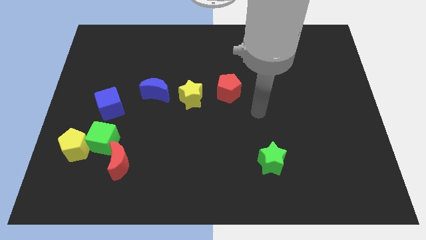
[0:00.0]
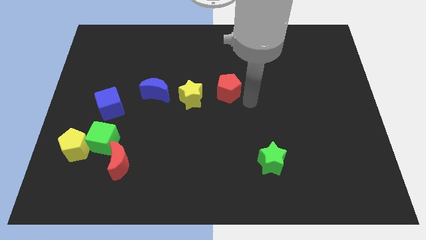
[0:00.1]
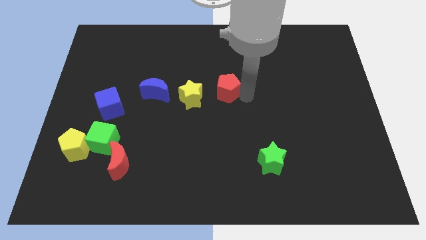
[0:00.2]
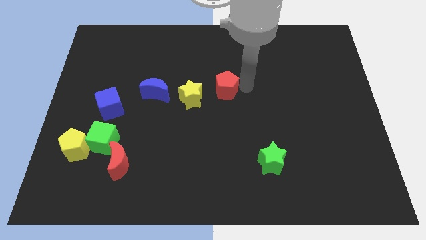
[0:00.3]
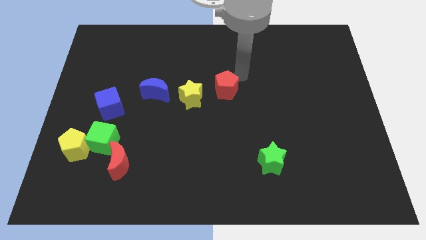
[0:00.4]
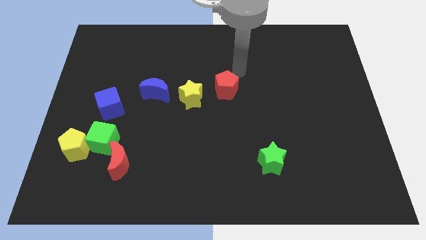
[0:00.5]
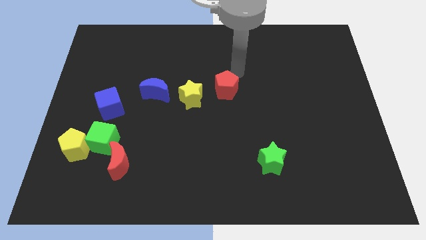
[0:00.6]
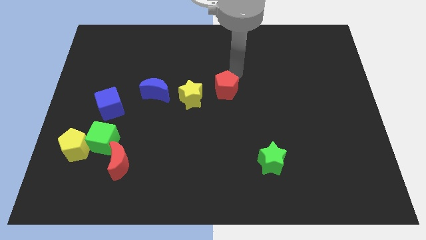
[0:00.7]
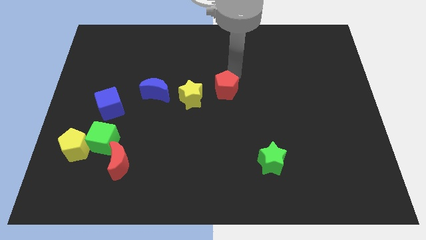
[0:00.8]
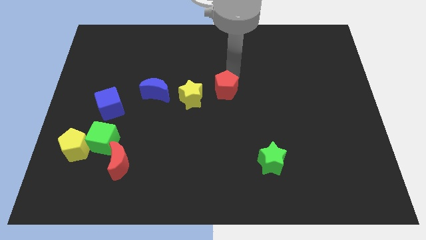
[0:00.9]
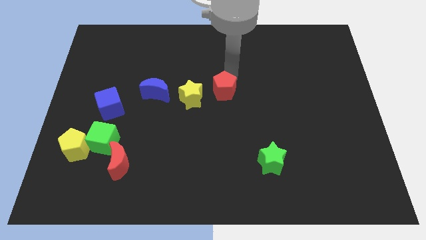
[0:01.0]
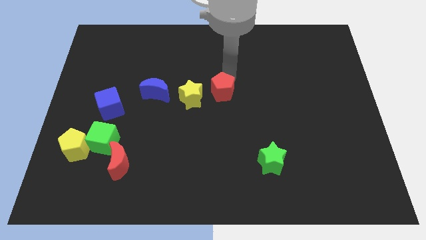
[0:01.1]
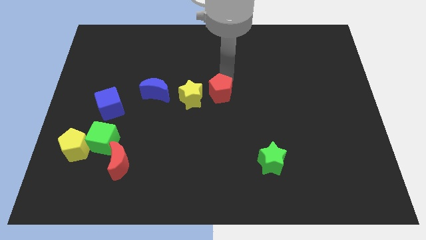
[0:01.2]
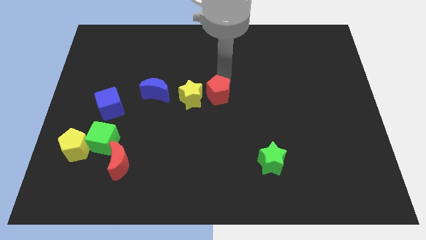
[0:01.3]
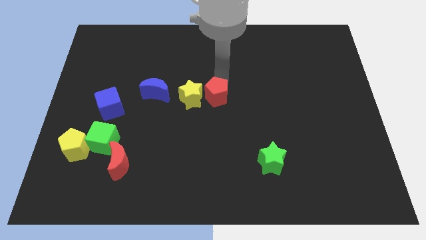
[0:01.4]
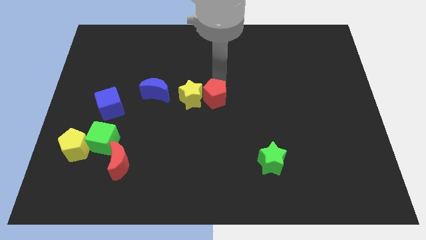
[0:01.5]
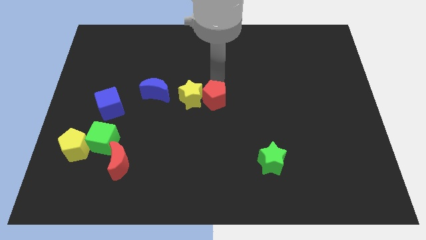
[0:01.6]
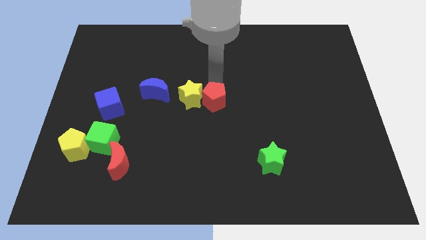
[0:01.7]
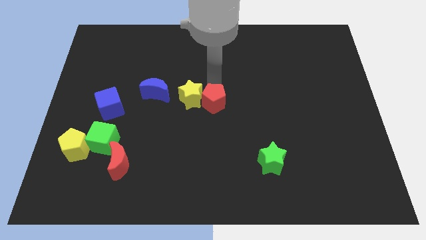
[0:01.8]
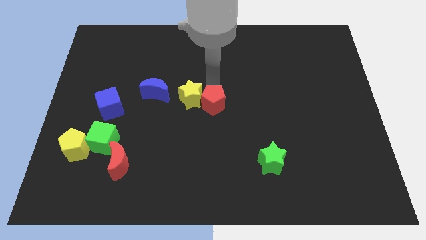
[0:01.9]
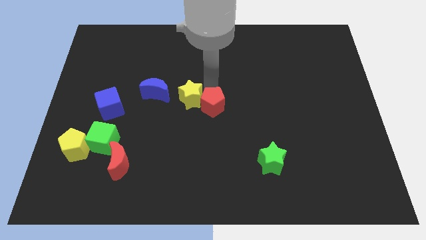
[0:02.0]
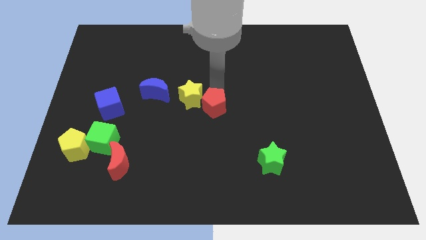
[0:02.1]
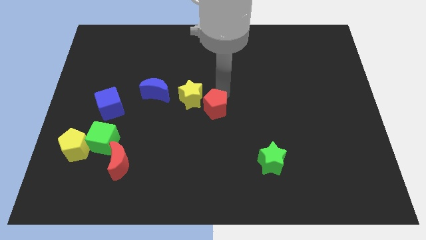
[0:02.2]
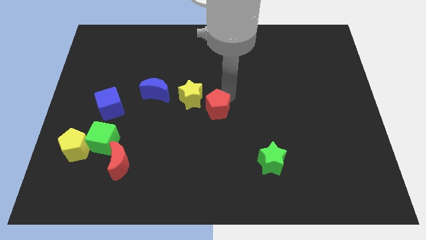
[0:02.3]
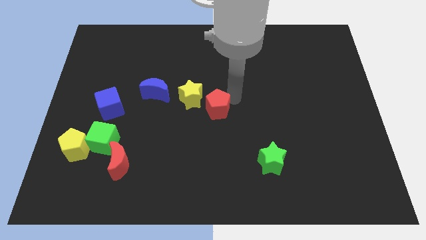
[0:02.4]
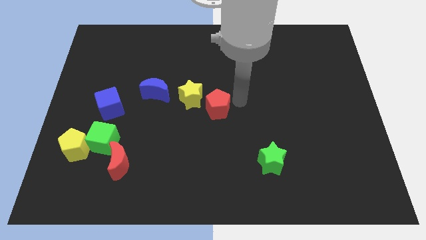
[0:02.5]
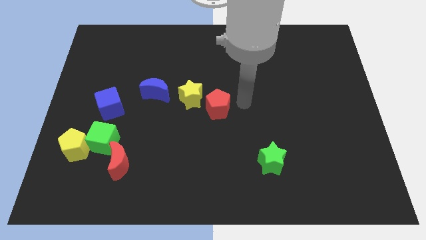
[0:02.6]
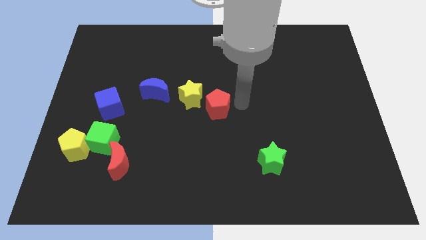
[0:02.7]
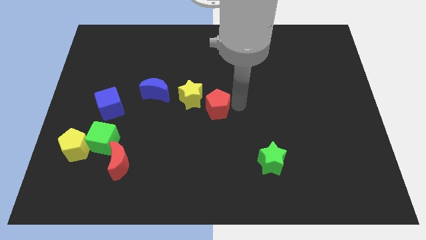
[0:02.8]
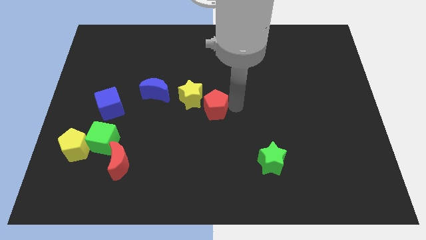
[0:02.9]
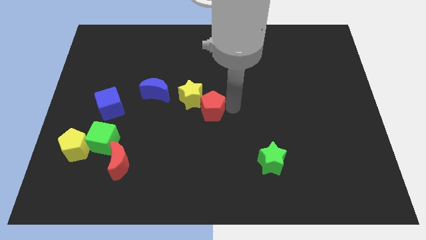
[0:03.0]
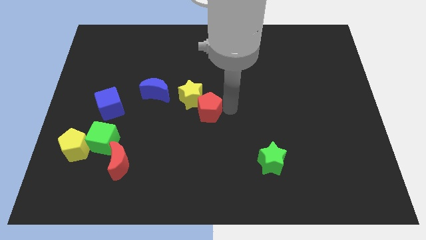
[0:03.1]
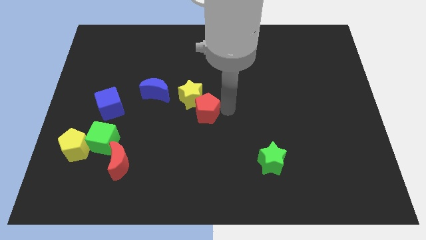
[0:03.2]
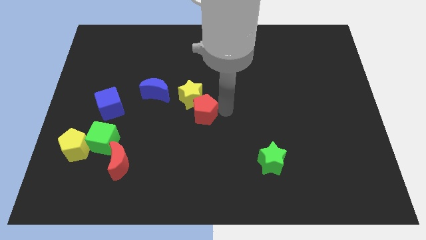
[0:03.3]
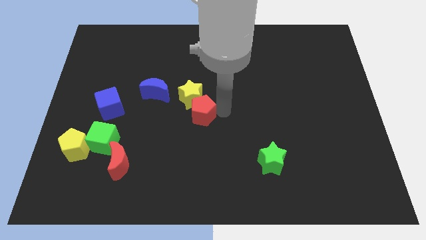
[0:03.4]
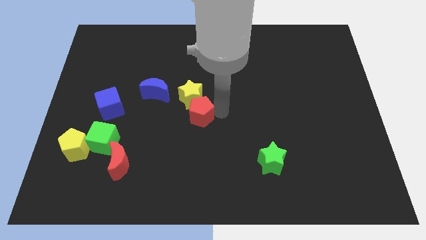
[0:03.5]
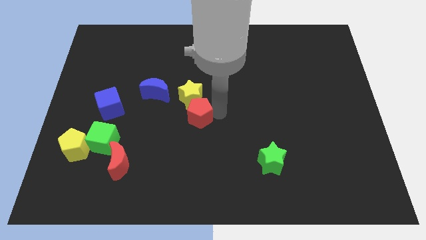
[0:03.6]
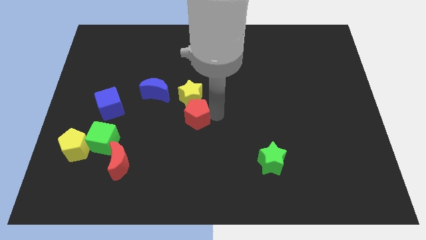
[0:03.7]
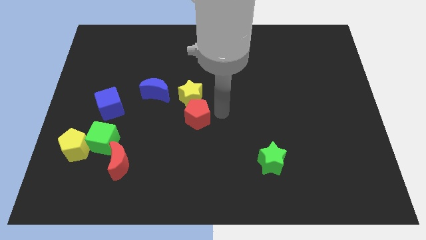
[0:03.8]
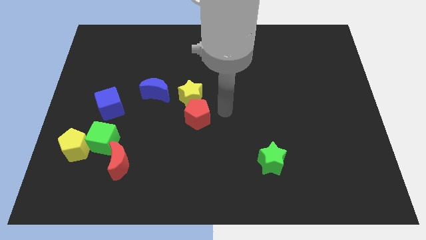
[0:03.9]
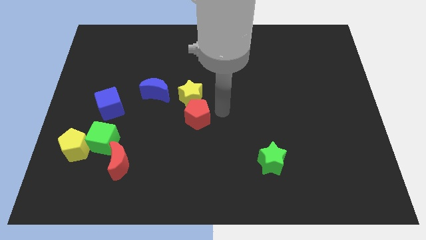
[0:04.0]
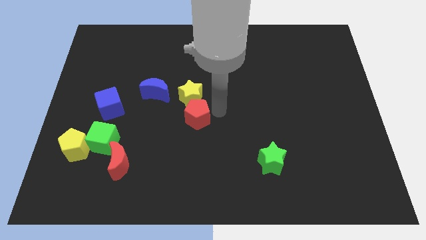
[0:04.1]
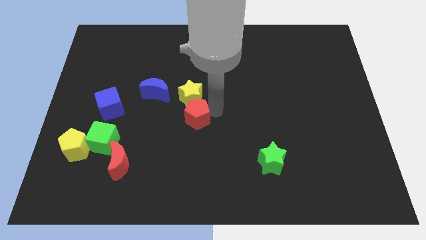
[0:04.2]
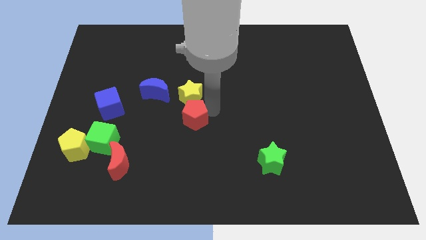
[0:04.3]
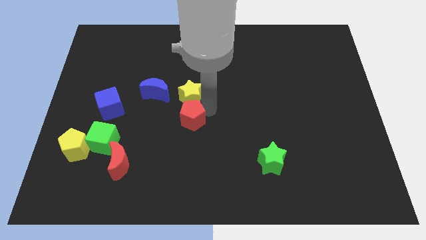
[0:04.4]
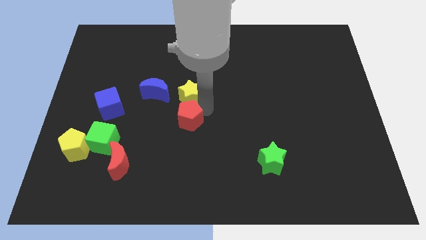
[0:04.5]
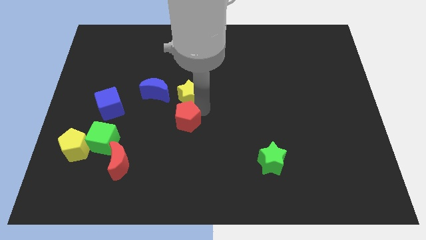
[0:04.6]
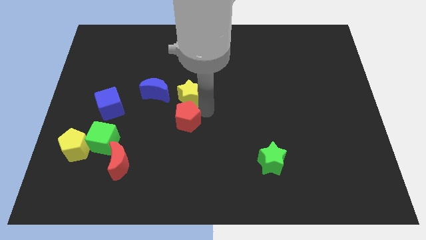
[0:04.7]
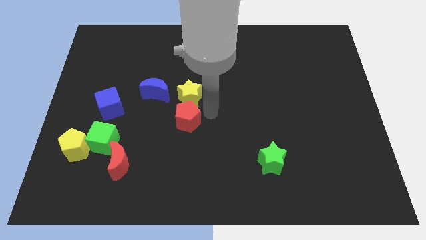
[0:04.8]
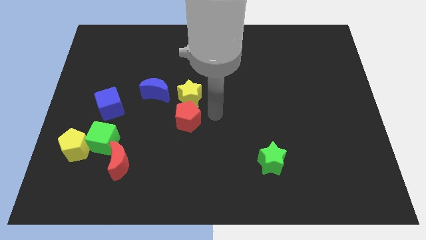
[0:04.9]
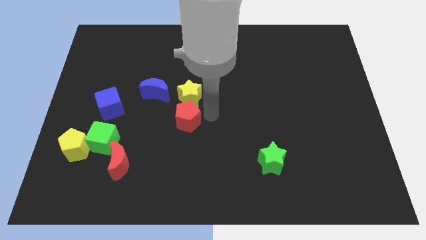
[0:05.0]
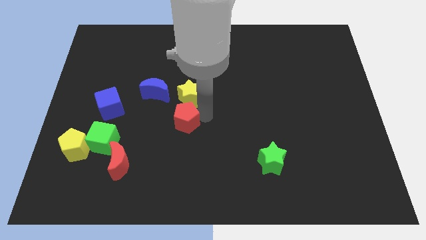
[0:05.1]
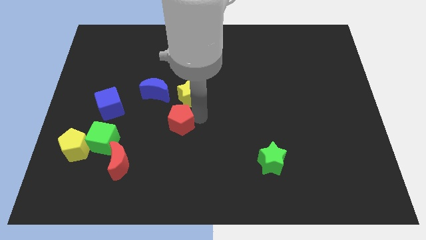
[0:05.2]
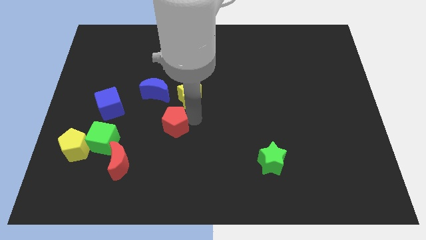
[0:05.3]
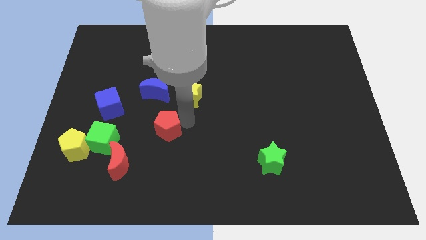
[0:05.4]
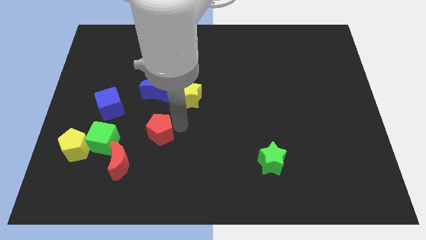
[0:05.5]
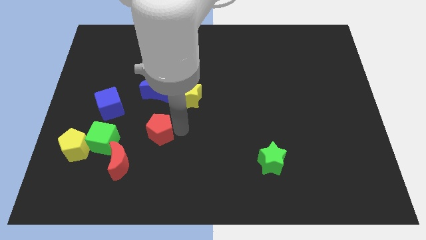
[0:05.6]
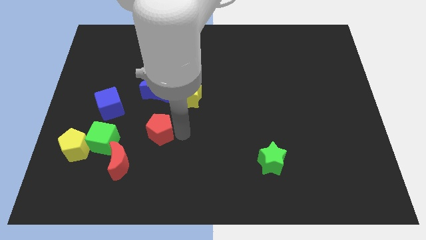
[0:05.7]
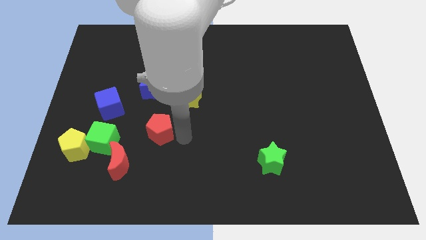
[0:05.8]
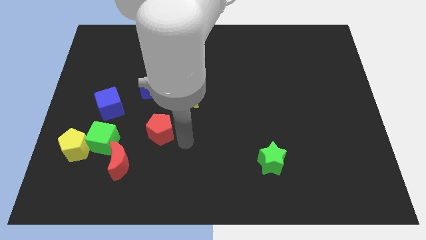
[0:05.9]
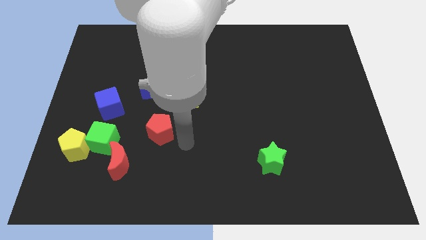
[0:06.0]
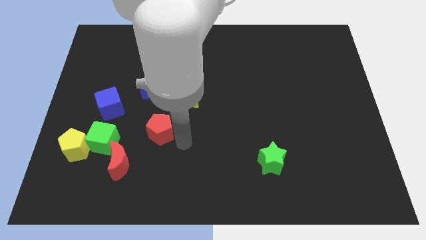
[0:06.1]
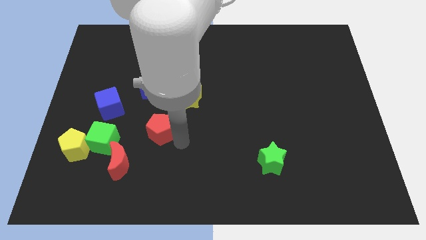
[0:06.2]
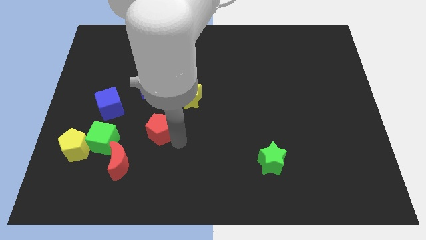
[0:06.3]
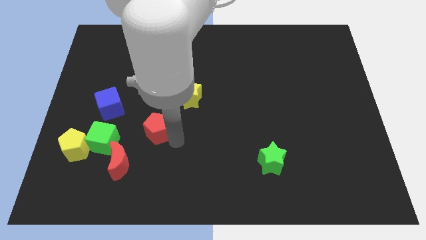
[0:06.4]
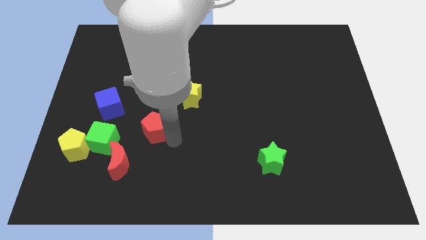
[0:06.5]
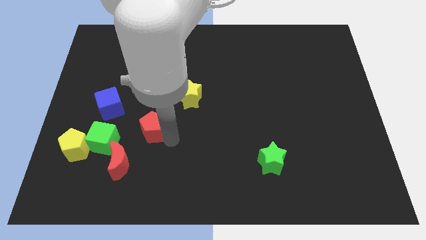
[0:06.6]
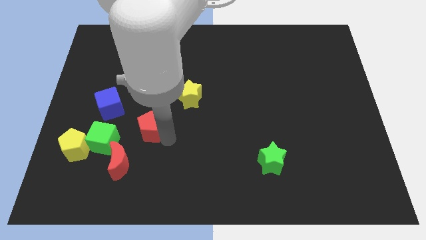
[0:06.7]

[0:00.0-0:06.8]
push the red pentagon diagonally down and to the right of the blue cube

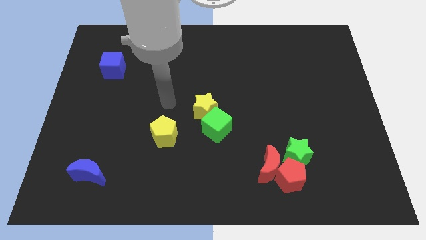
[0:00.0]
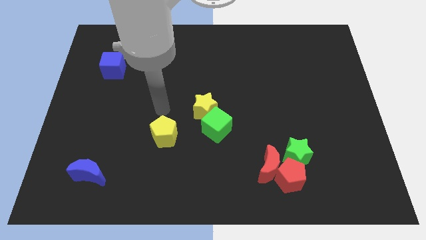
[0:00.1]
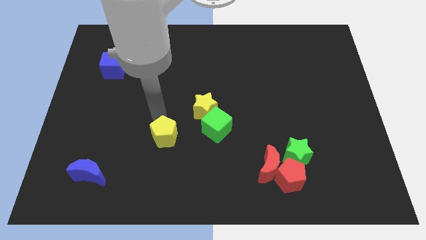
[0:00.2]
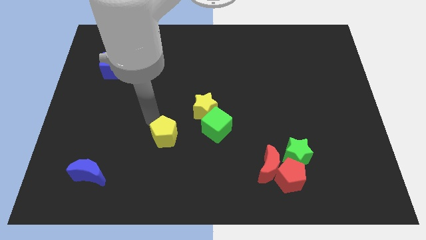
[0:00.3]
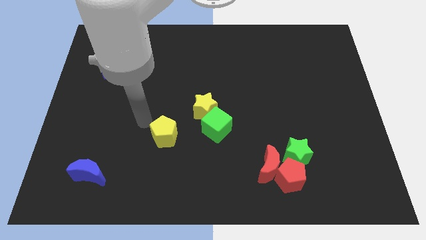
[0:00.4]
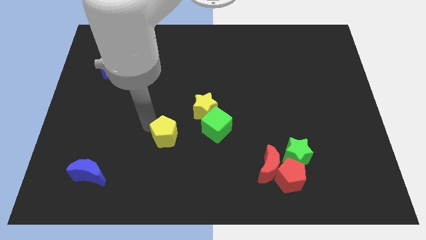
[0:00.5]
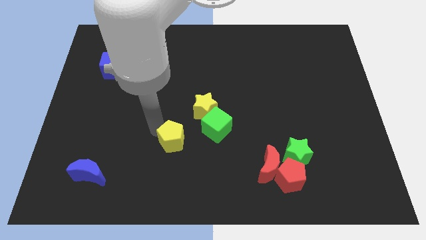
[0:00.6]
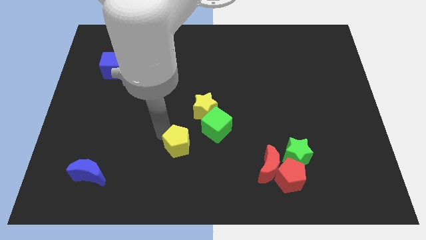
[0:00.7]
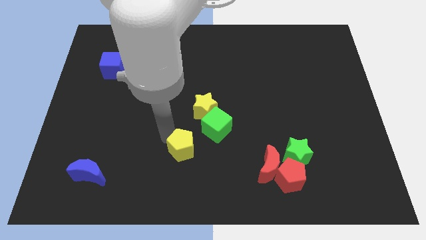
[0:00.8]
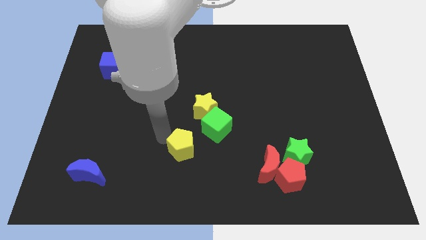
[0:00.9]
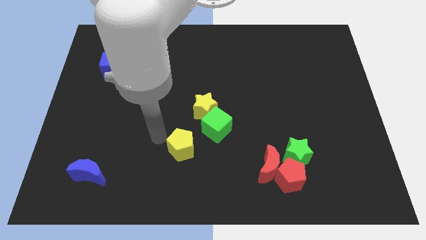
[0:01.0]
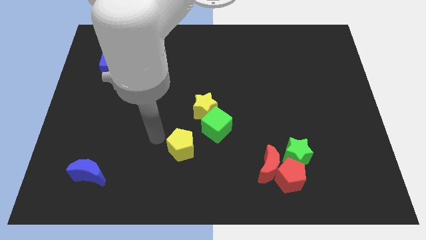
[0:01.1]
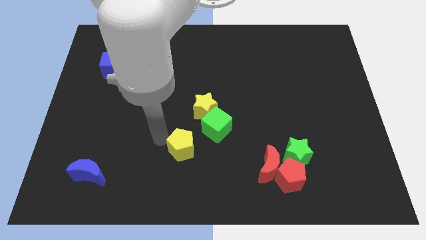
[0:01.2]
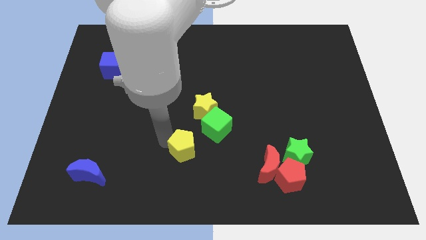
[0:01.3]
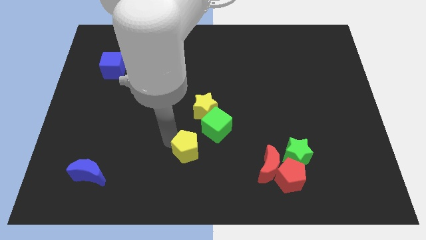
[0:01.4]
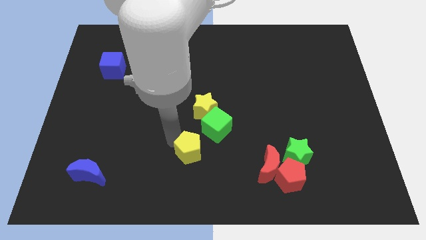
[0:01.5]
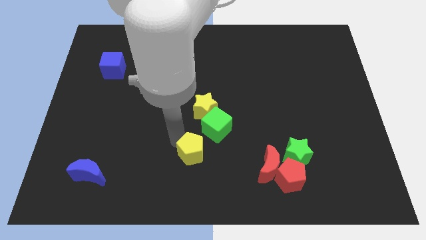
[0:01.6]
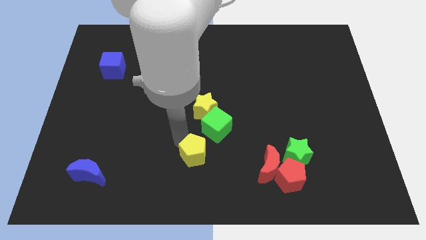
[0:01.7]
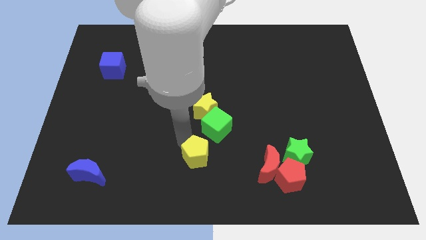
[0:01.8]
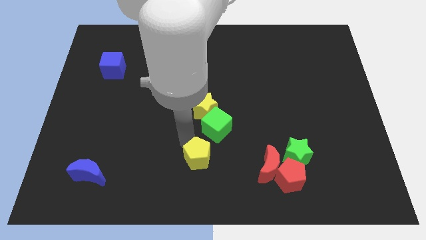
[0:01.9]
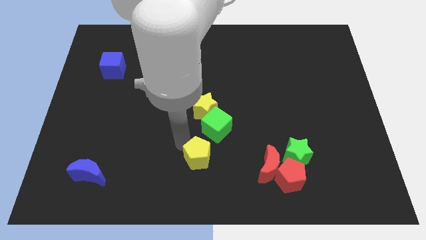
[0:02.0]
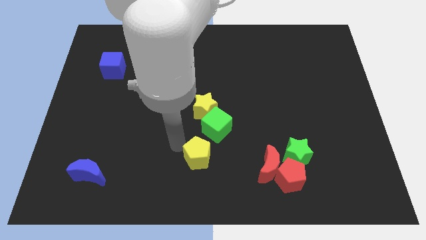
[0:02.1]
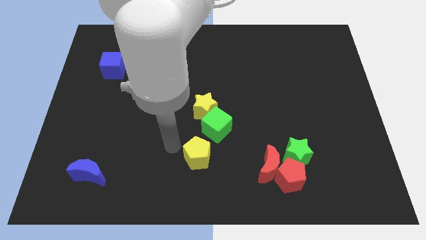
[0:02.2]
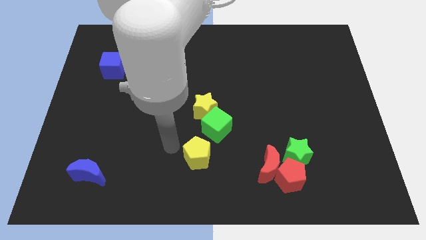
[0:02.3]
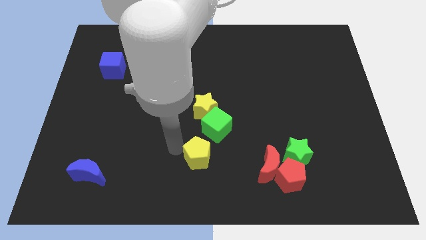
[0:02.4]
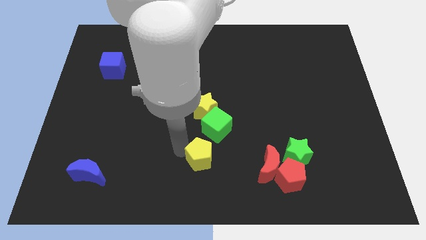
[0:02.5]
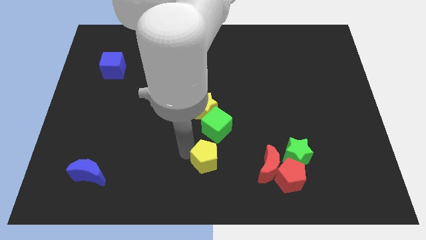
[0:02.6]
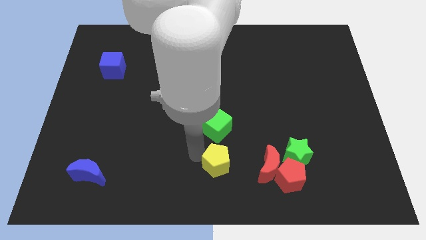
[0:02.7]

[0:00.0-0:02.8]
push the yellow pentagon just left of the red pentagon
